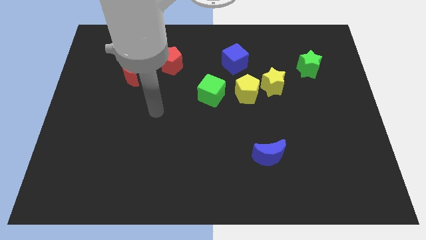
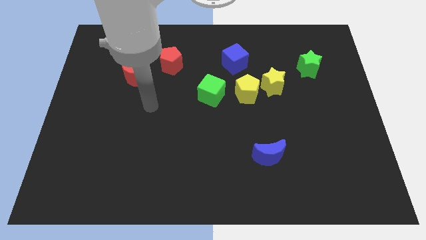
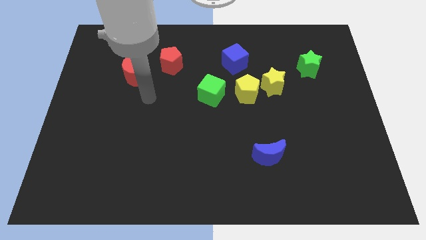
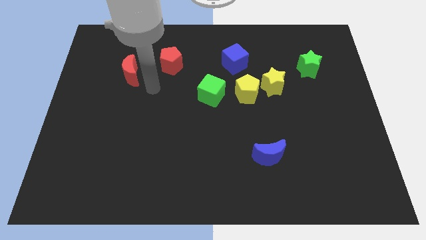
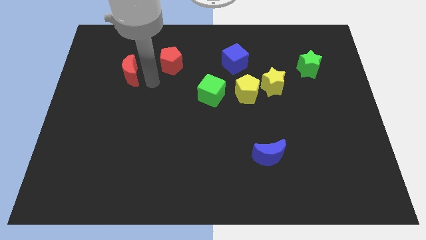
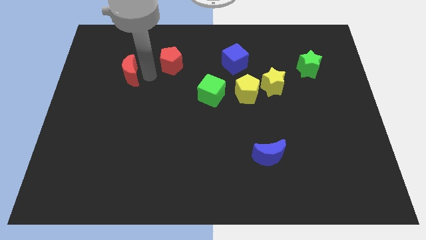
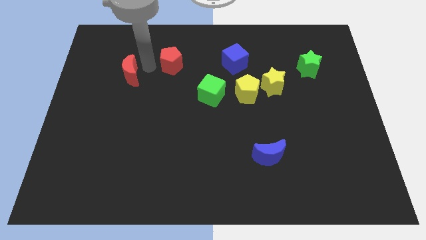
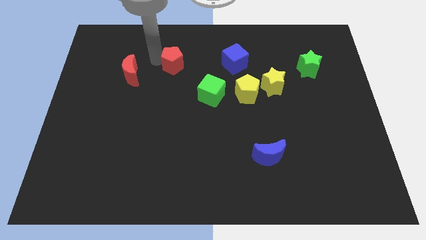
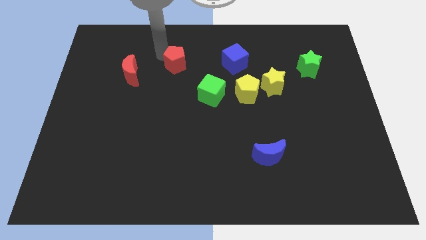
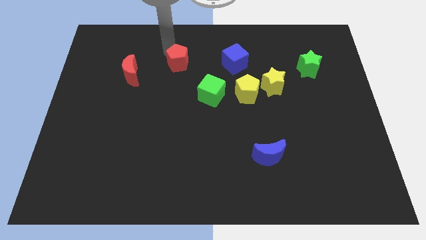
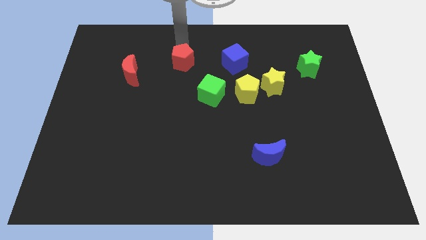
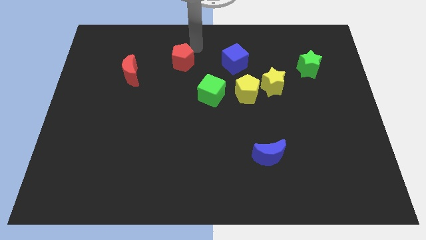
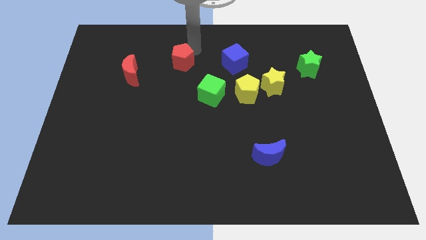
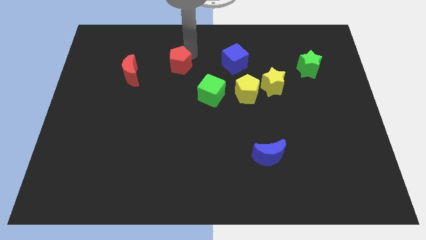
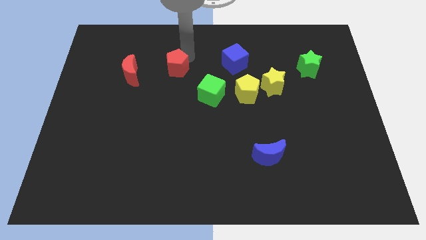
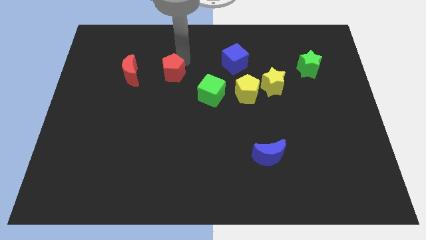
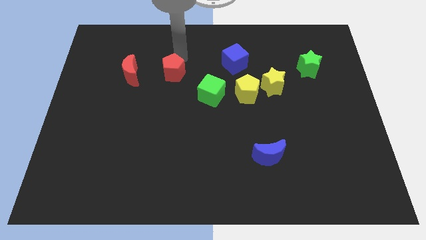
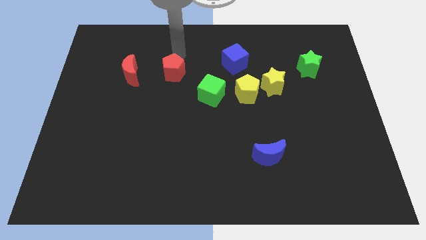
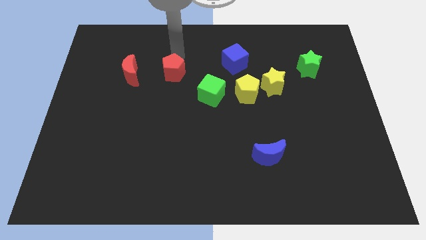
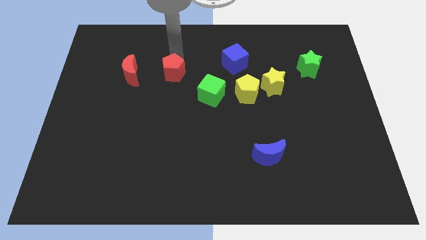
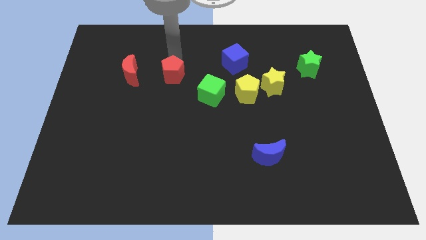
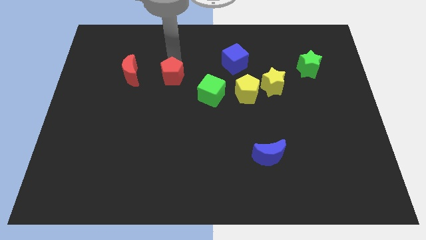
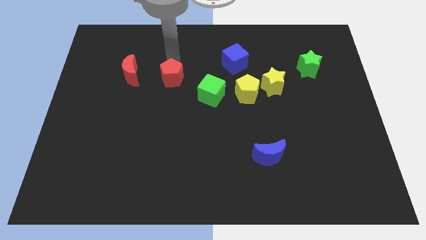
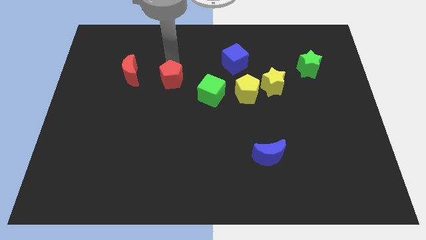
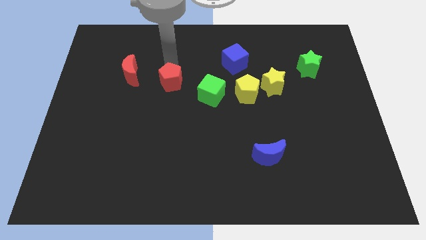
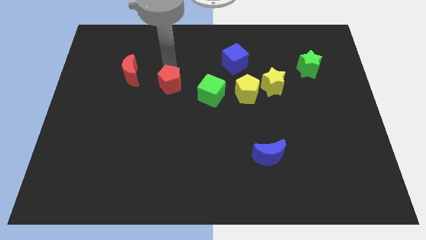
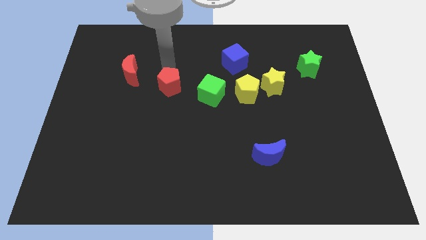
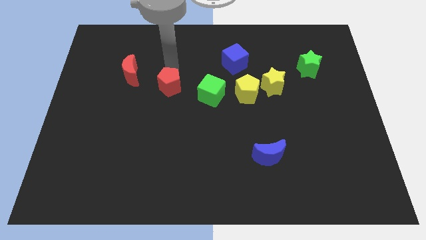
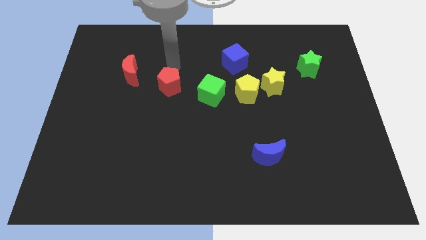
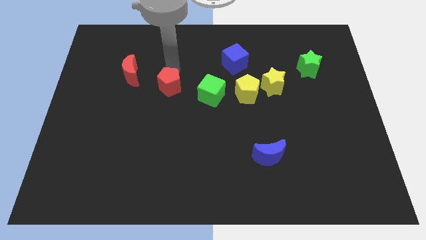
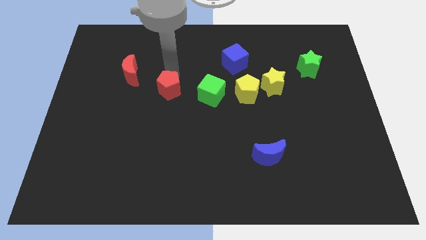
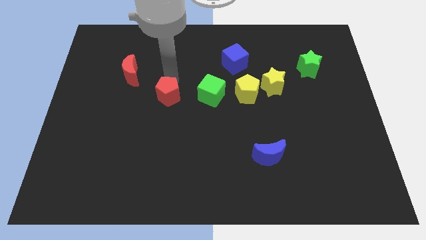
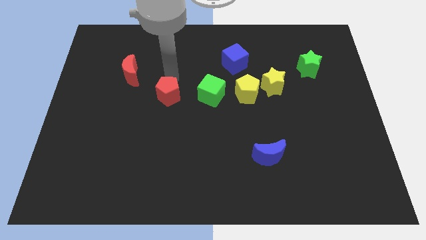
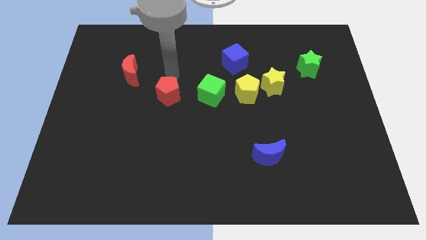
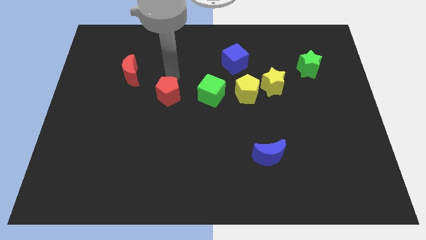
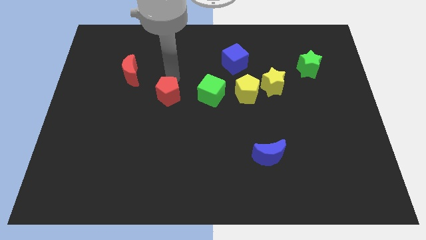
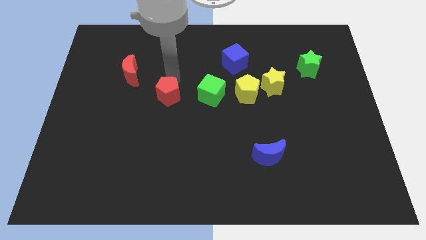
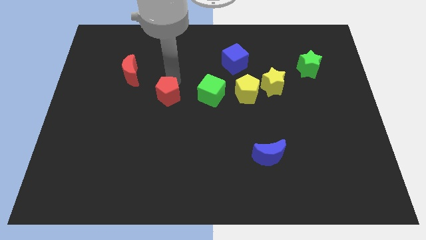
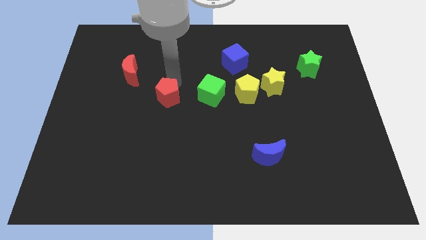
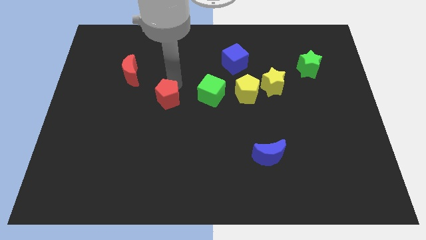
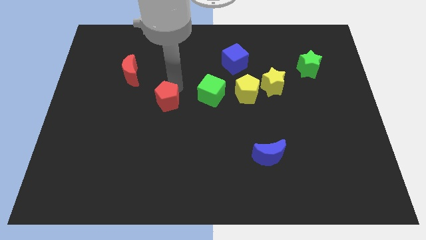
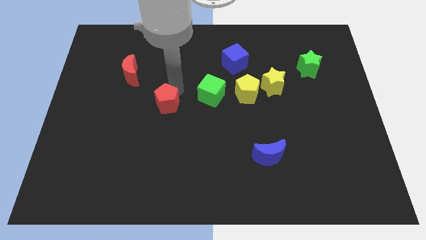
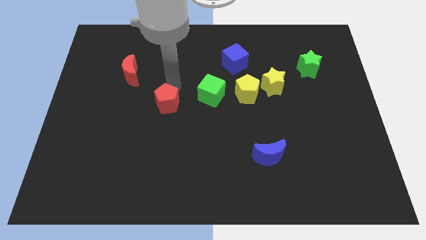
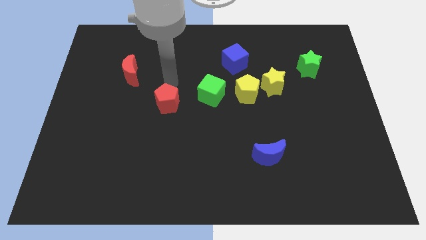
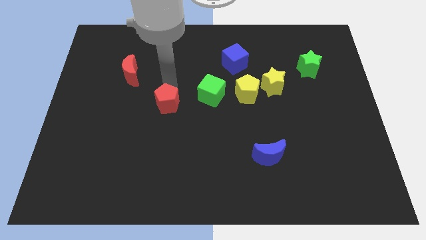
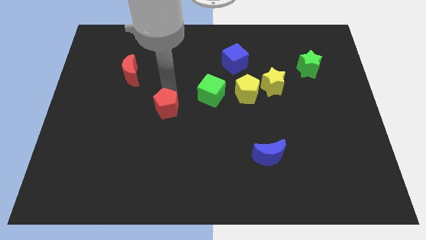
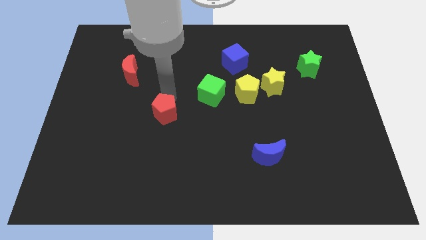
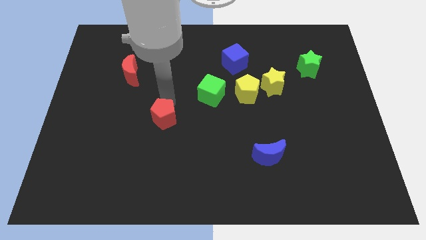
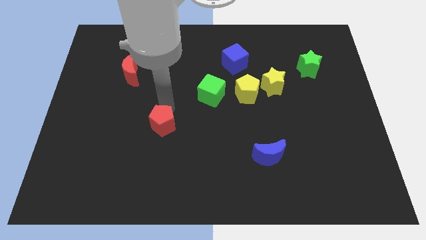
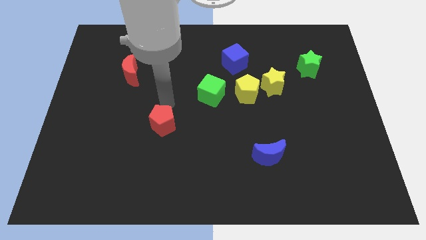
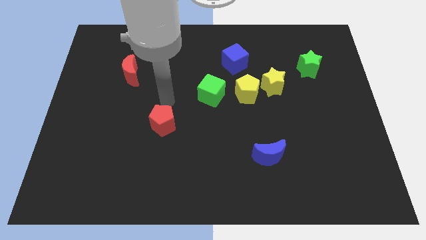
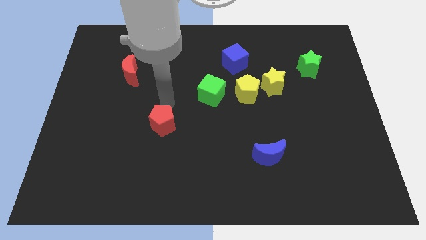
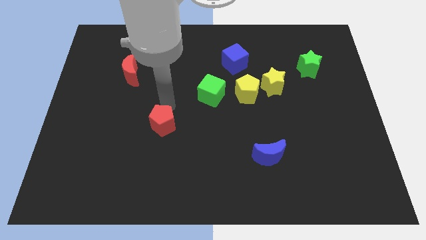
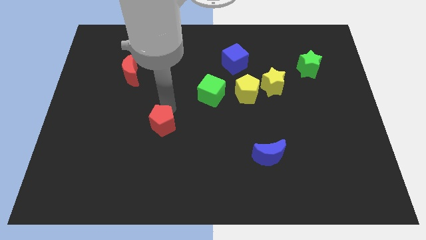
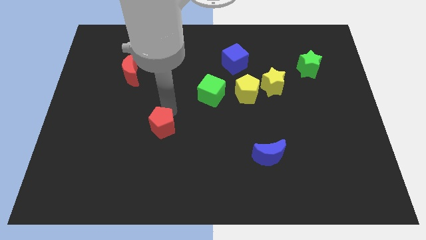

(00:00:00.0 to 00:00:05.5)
move the red pentagon down

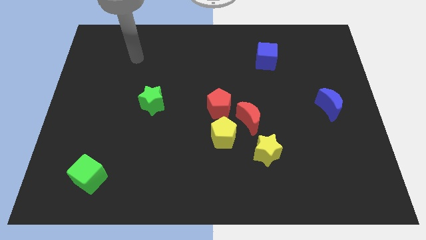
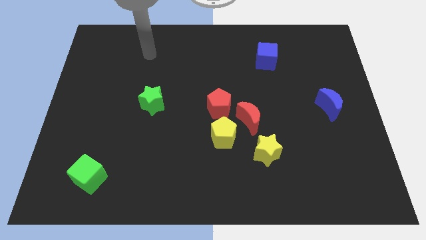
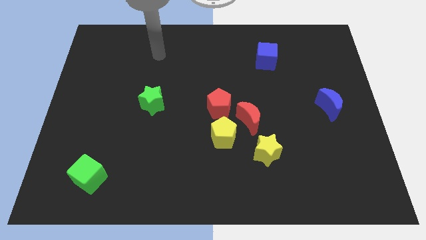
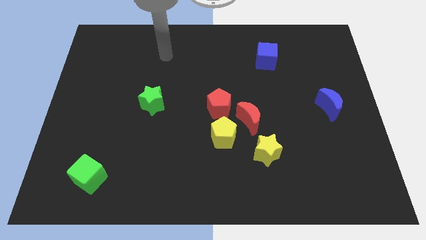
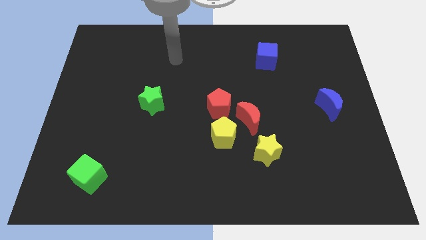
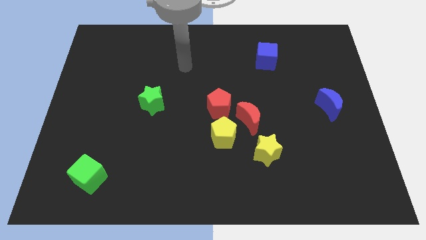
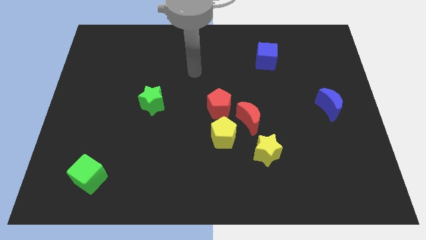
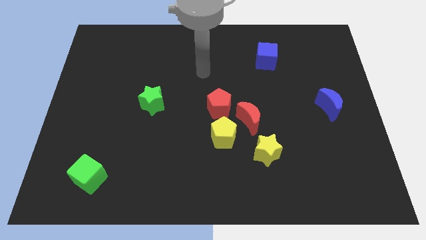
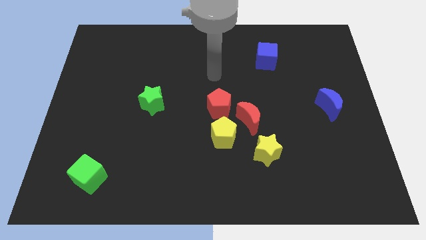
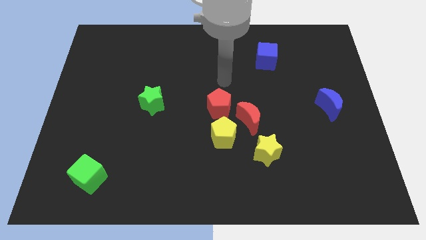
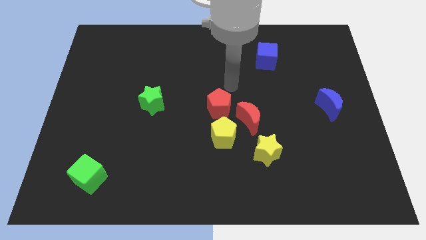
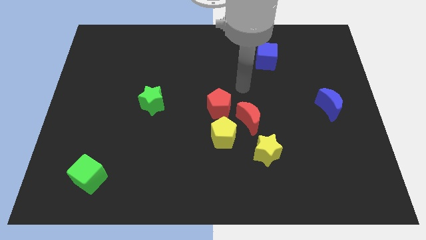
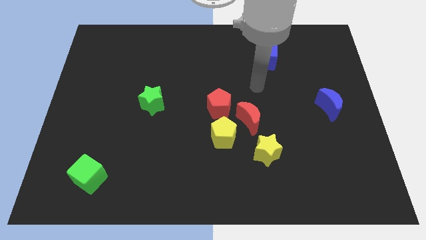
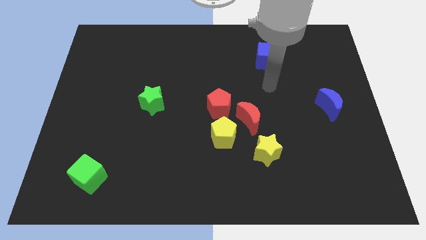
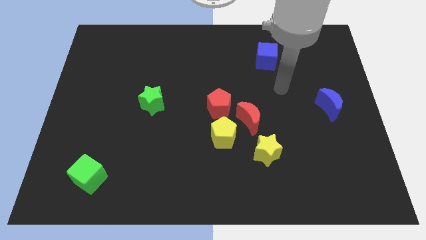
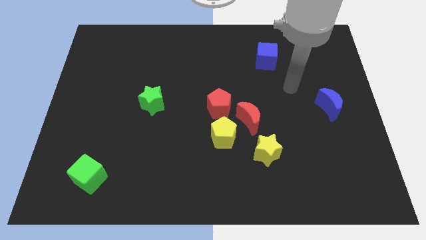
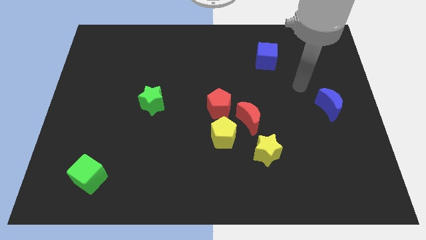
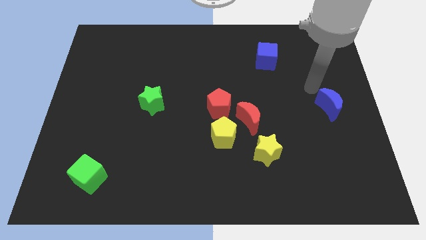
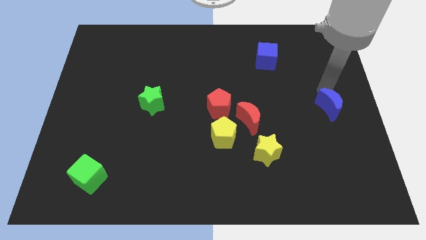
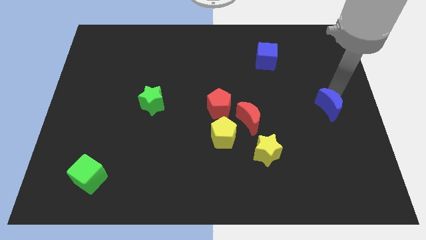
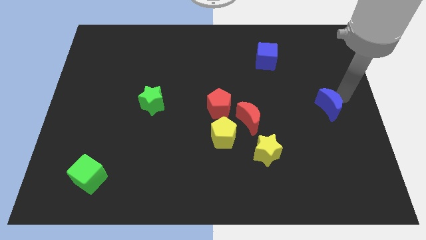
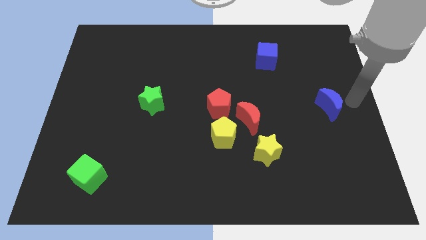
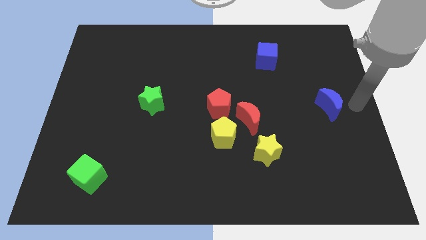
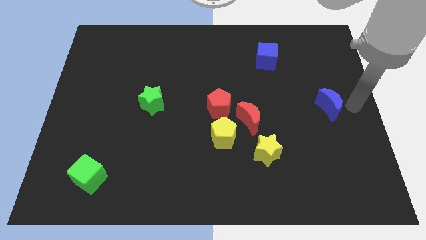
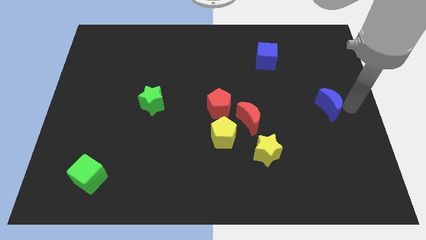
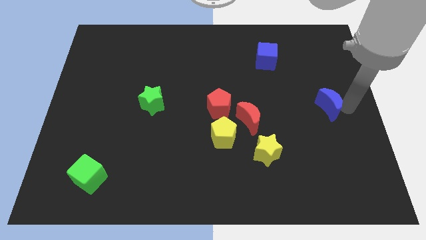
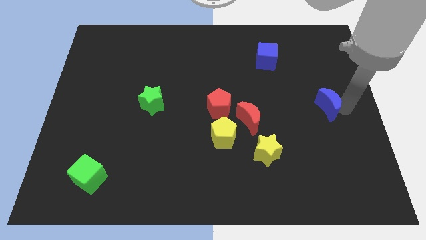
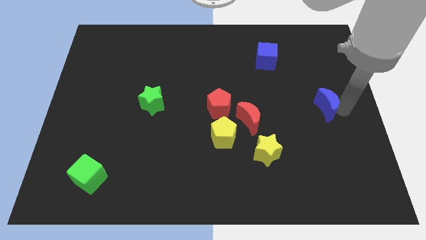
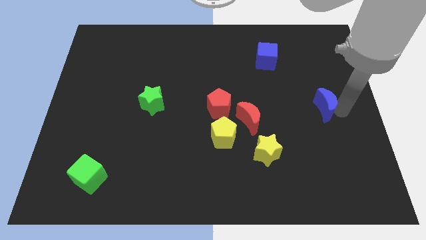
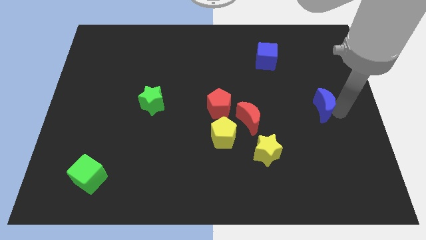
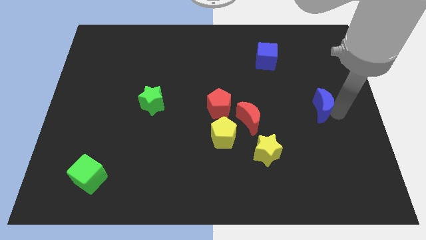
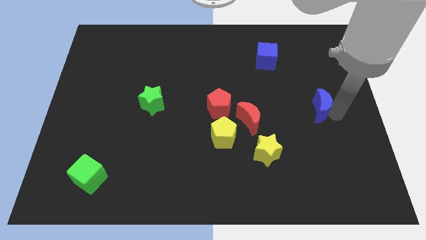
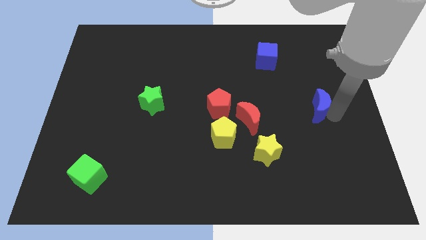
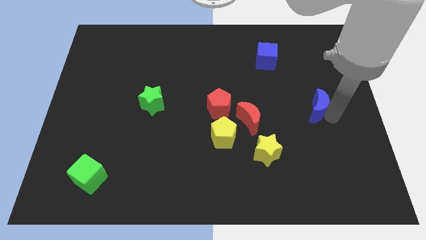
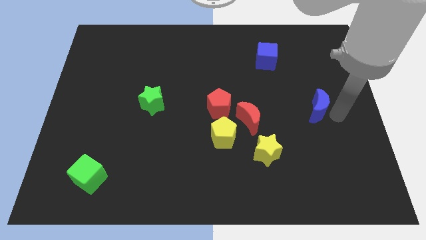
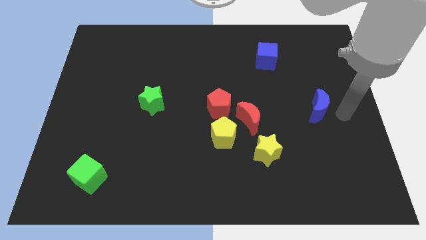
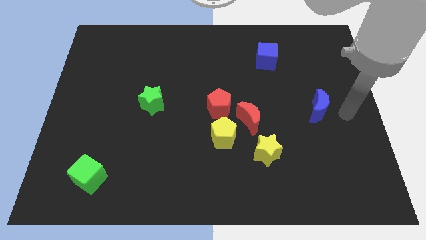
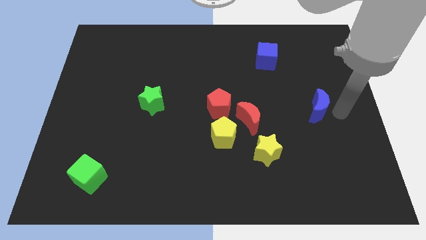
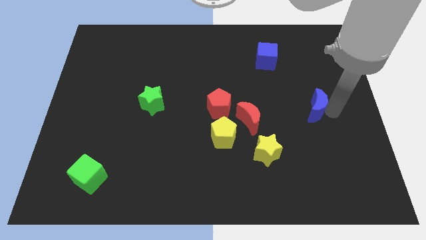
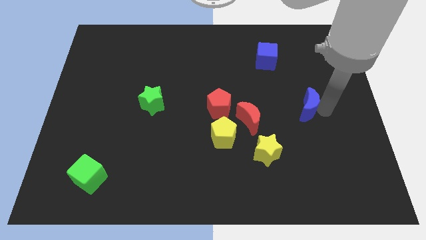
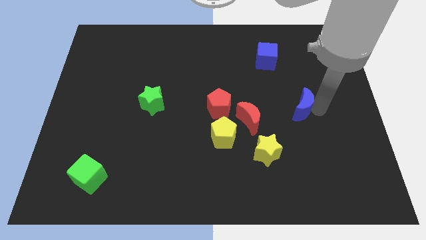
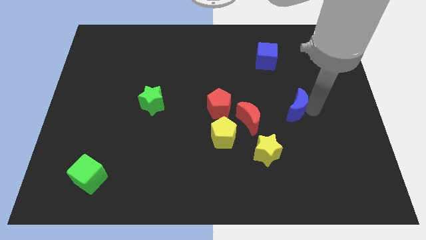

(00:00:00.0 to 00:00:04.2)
slightly push the blue moon to the left
